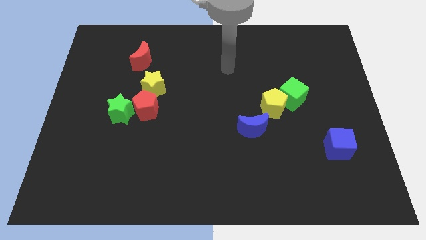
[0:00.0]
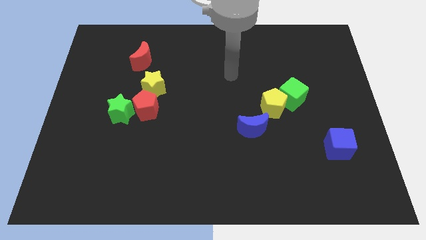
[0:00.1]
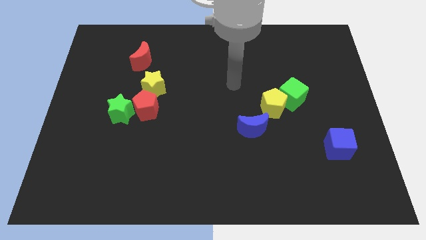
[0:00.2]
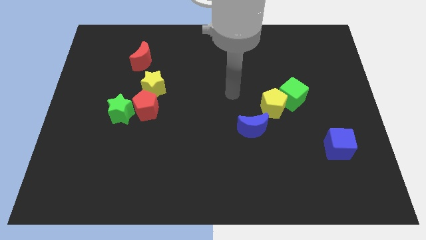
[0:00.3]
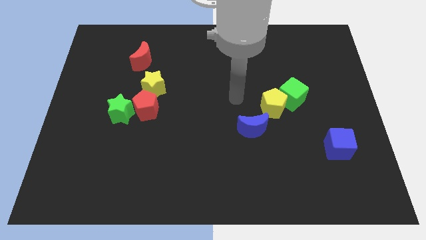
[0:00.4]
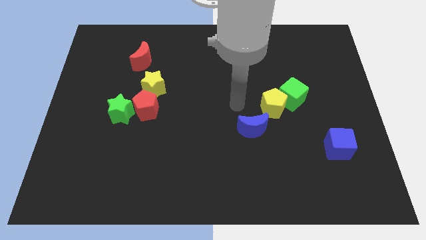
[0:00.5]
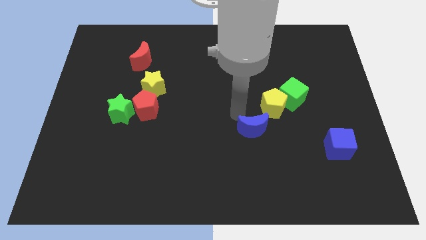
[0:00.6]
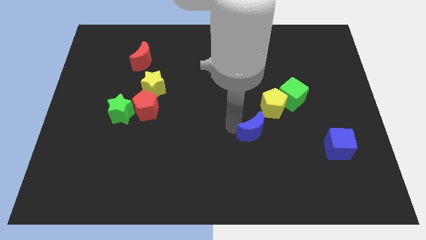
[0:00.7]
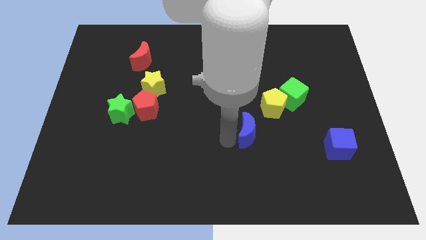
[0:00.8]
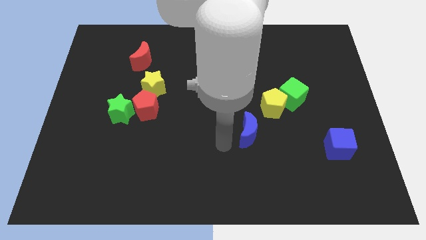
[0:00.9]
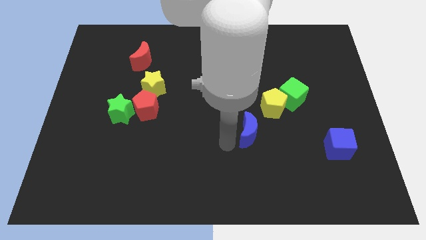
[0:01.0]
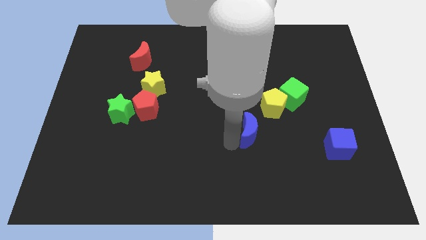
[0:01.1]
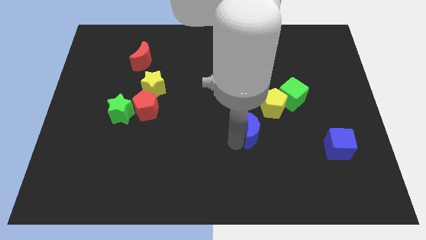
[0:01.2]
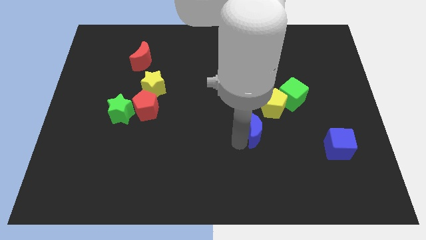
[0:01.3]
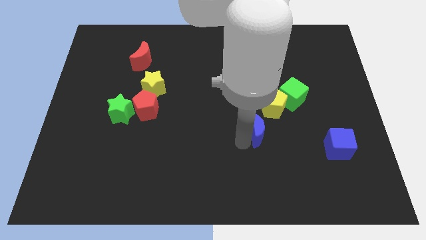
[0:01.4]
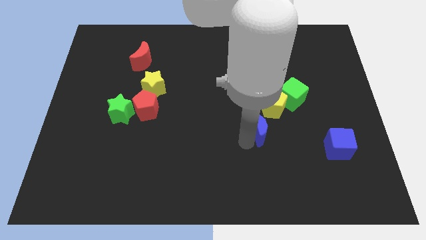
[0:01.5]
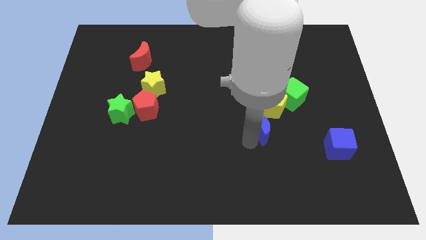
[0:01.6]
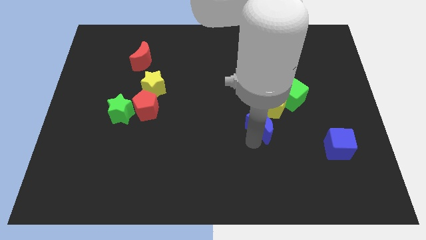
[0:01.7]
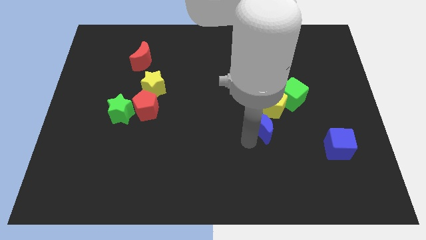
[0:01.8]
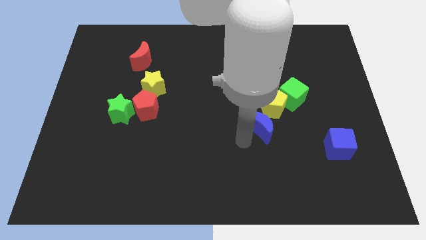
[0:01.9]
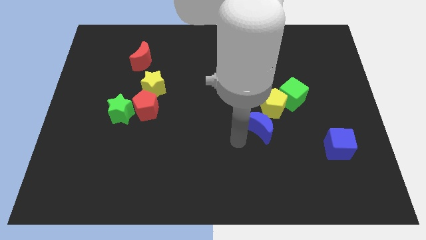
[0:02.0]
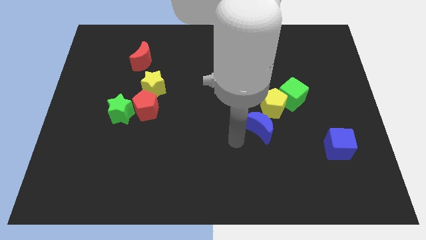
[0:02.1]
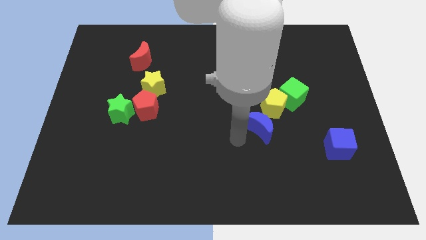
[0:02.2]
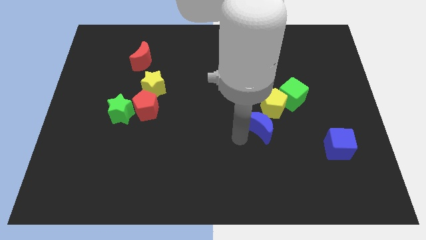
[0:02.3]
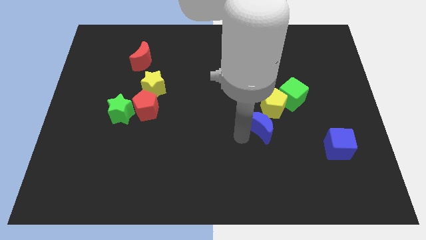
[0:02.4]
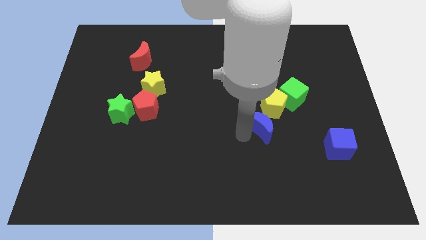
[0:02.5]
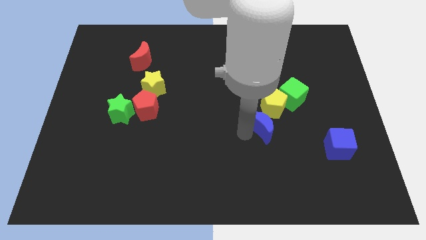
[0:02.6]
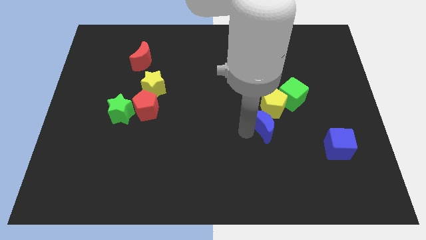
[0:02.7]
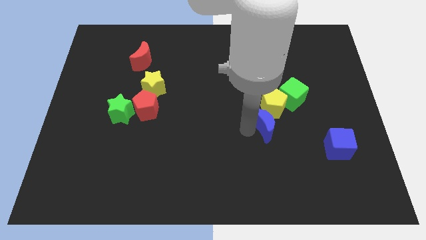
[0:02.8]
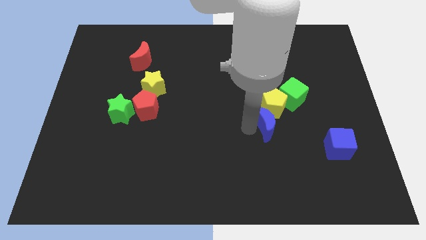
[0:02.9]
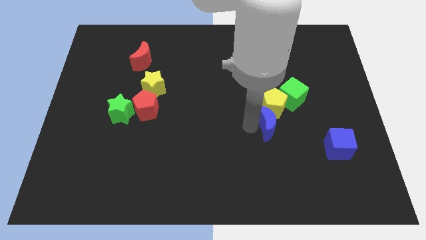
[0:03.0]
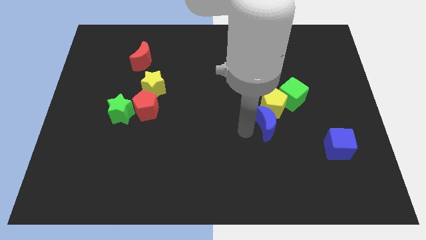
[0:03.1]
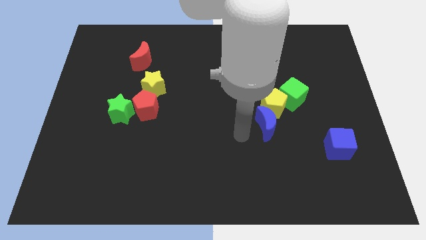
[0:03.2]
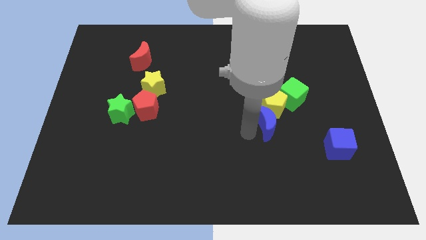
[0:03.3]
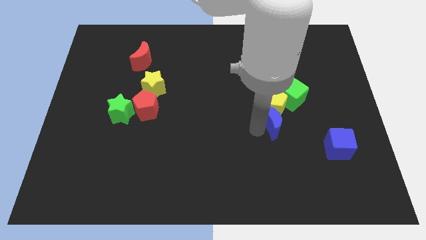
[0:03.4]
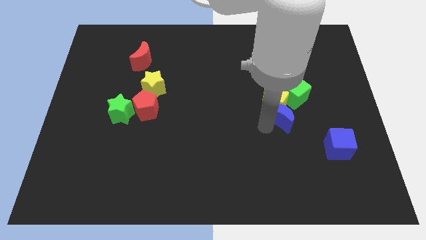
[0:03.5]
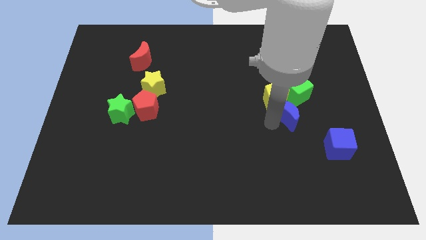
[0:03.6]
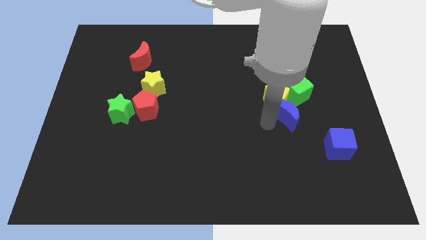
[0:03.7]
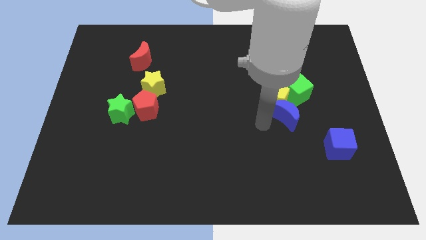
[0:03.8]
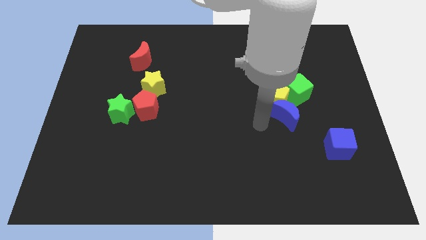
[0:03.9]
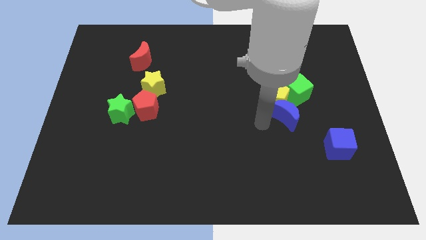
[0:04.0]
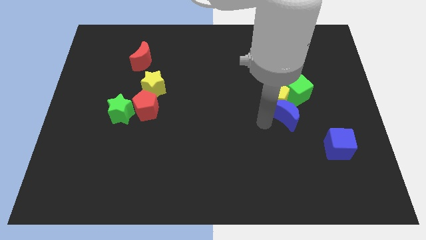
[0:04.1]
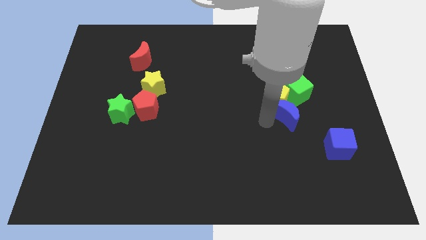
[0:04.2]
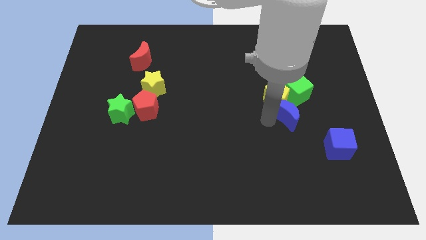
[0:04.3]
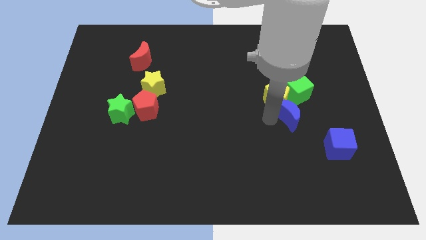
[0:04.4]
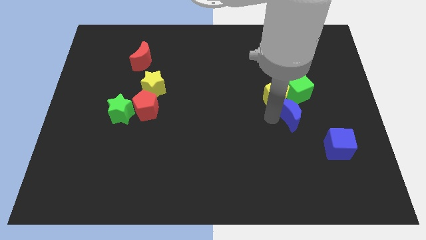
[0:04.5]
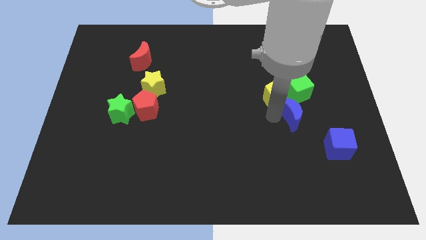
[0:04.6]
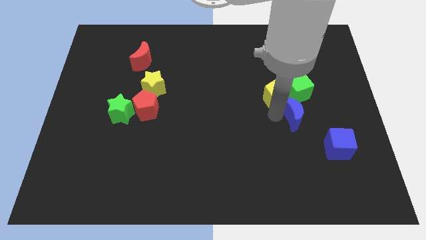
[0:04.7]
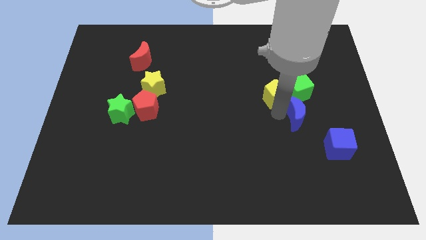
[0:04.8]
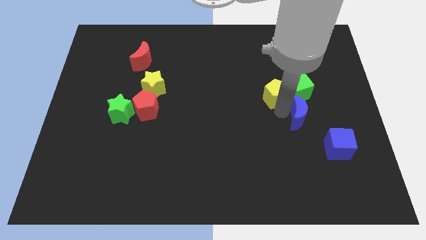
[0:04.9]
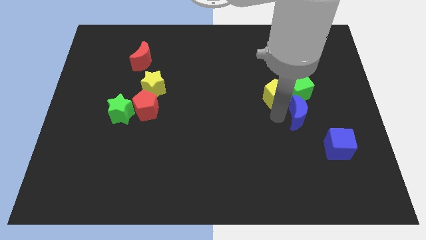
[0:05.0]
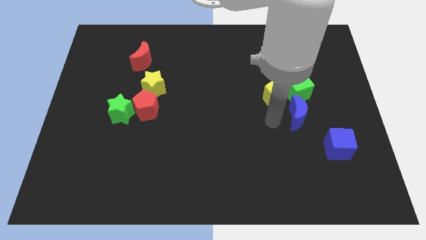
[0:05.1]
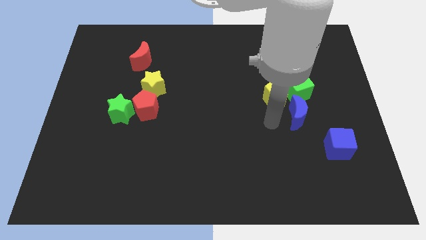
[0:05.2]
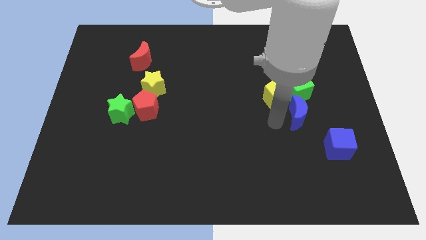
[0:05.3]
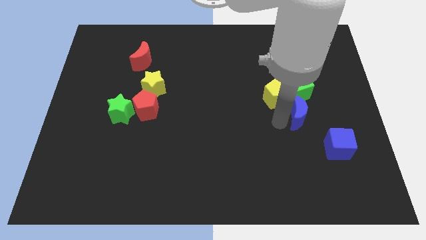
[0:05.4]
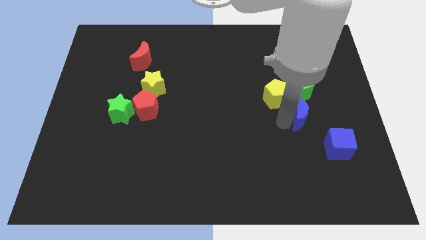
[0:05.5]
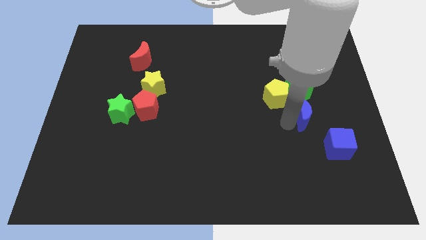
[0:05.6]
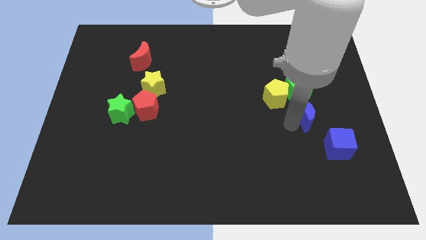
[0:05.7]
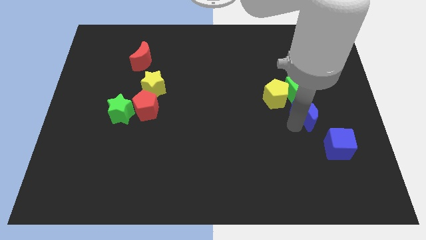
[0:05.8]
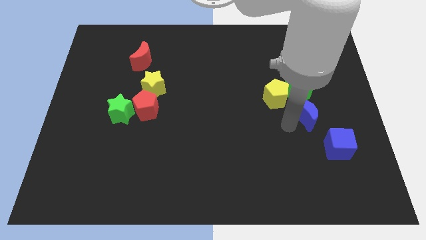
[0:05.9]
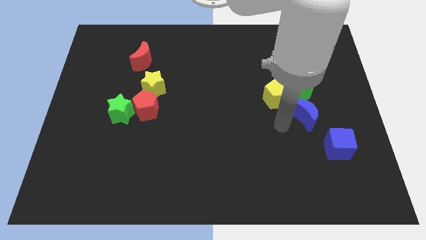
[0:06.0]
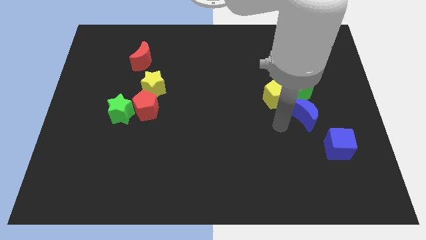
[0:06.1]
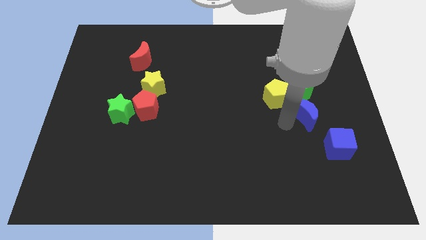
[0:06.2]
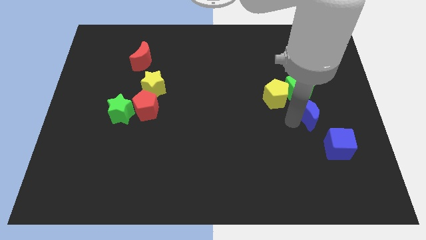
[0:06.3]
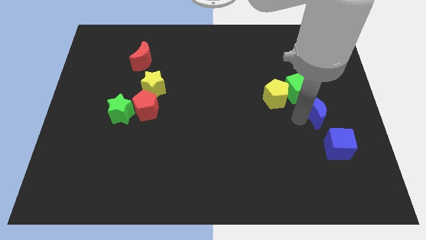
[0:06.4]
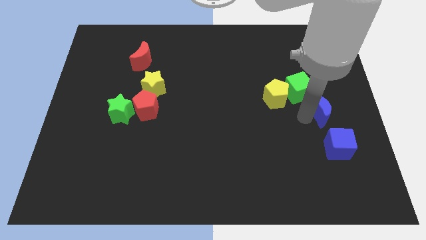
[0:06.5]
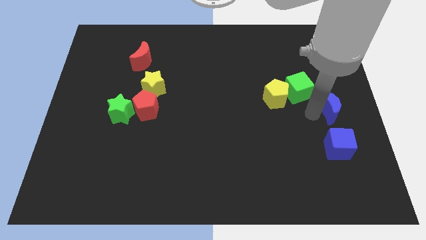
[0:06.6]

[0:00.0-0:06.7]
push the blue moon to the right side of the board
